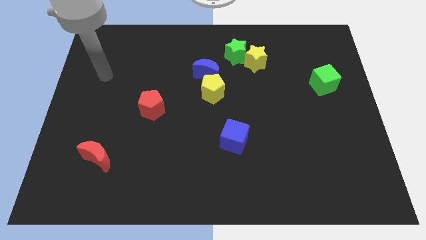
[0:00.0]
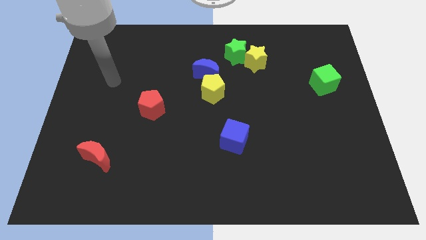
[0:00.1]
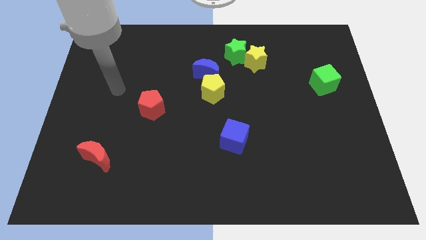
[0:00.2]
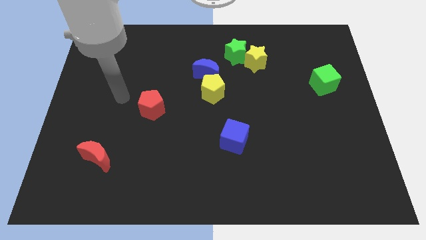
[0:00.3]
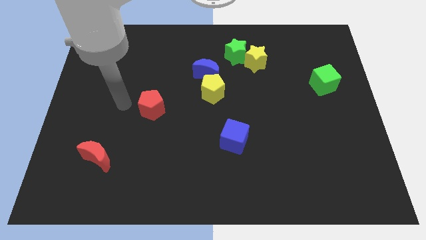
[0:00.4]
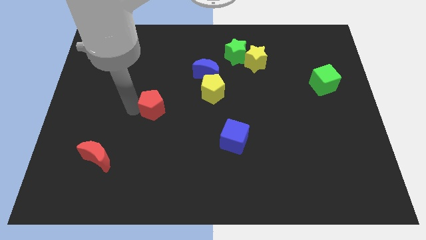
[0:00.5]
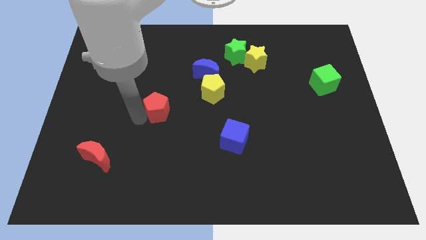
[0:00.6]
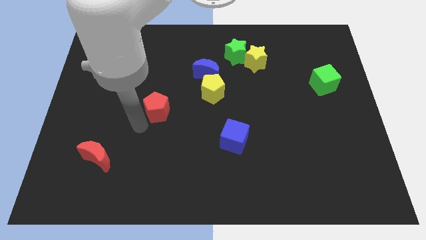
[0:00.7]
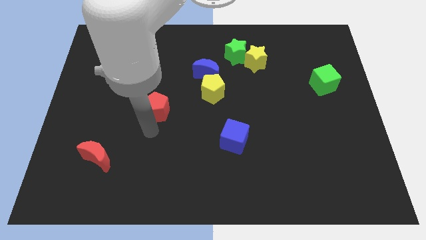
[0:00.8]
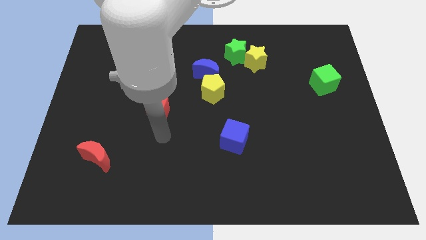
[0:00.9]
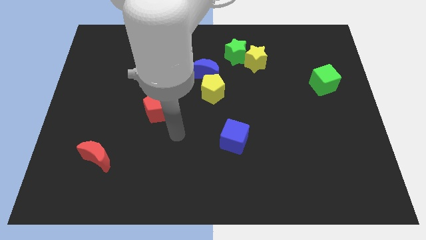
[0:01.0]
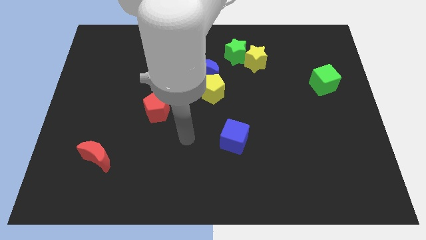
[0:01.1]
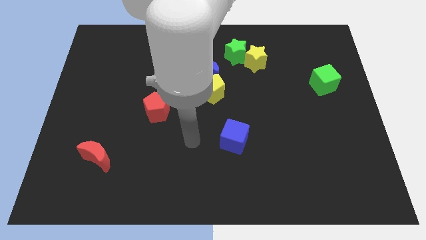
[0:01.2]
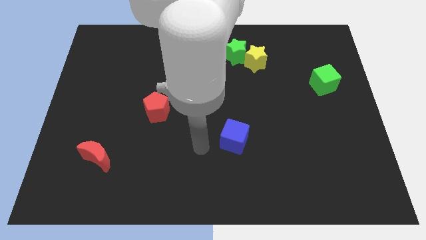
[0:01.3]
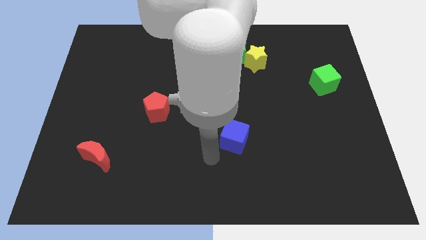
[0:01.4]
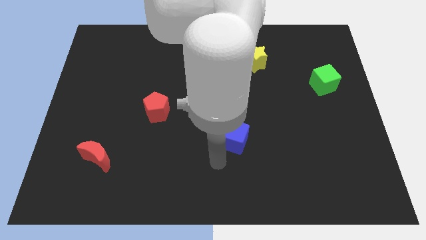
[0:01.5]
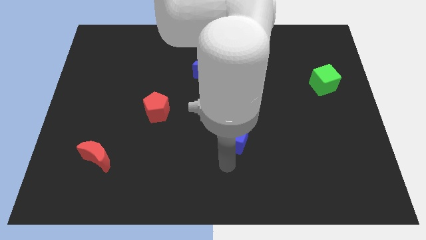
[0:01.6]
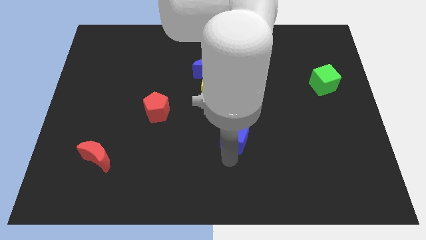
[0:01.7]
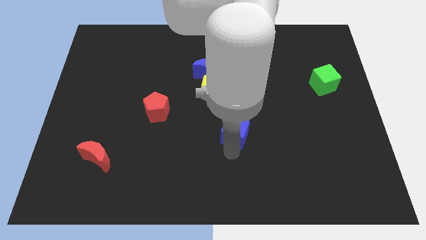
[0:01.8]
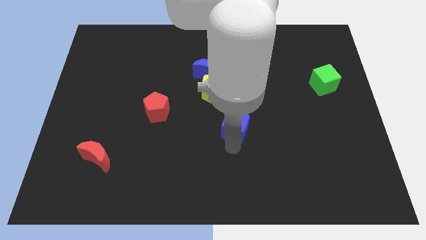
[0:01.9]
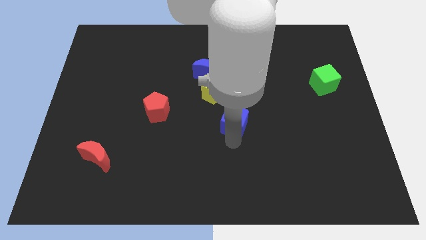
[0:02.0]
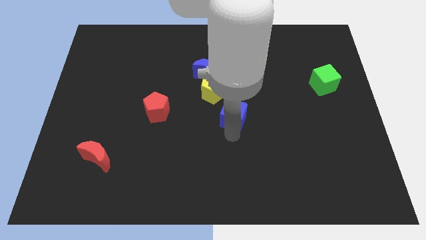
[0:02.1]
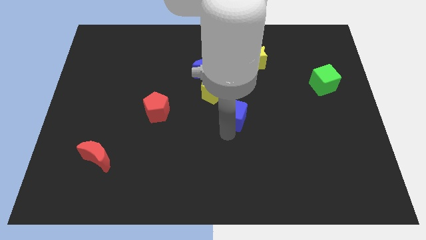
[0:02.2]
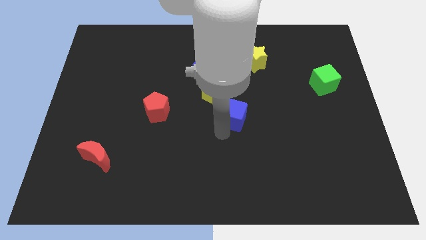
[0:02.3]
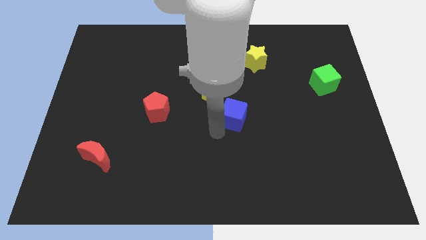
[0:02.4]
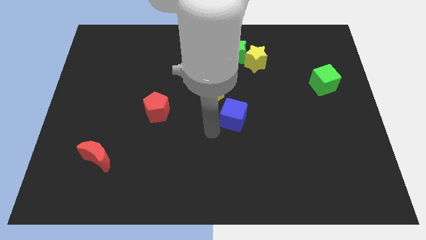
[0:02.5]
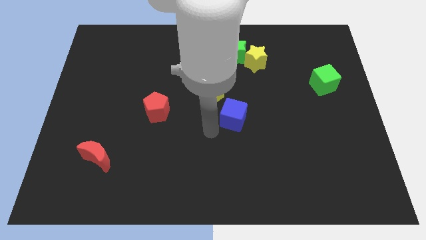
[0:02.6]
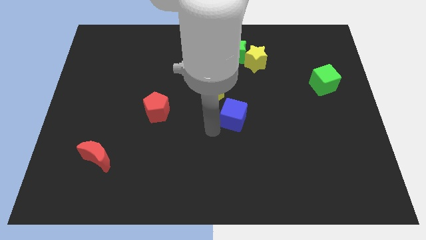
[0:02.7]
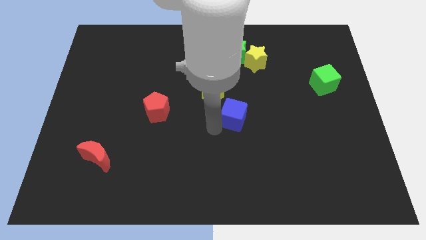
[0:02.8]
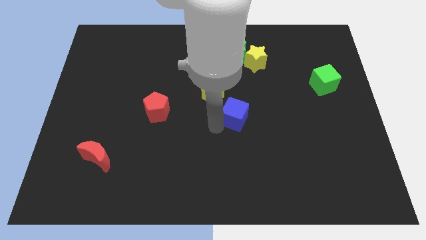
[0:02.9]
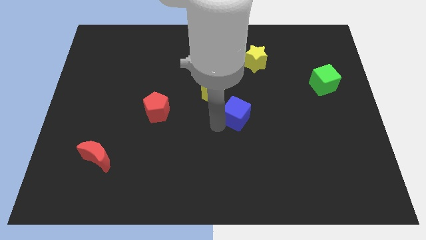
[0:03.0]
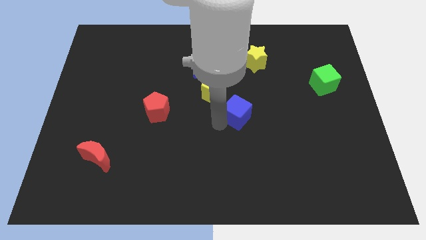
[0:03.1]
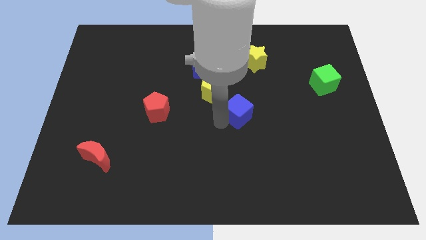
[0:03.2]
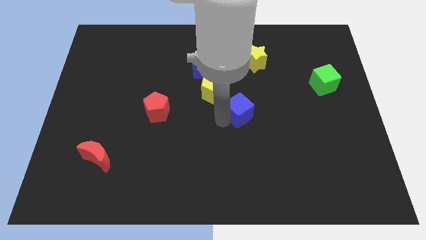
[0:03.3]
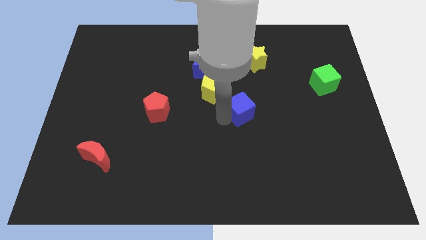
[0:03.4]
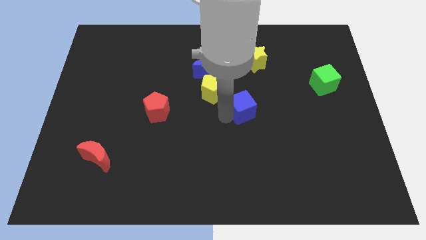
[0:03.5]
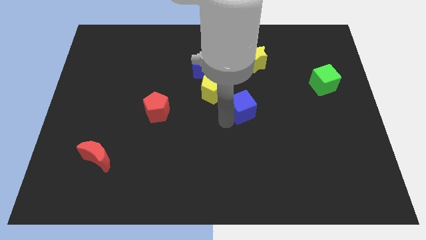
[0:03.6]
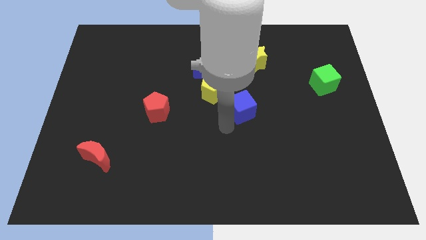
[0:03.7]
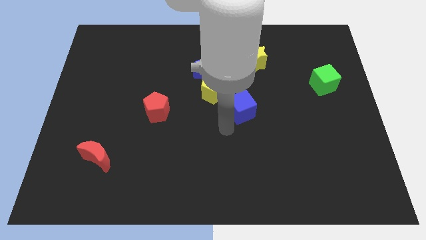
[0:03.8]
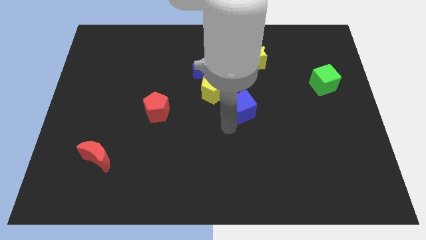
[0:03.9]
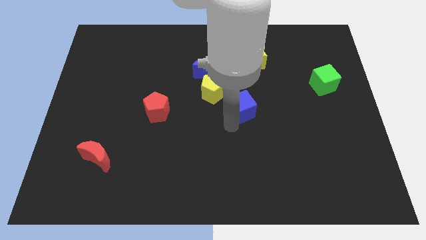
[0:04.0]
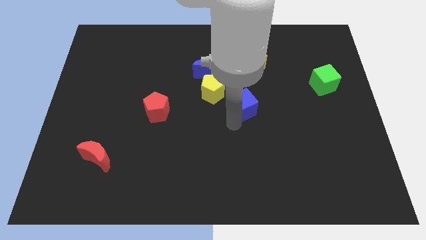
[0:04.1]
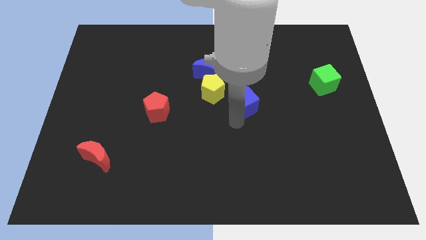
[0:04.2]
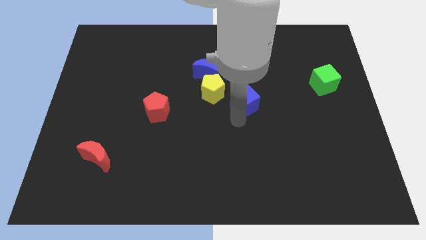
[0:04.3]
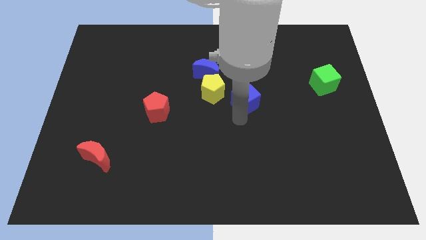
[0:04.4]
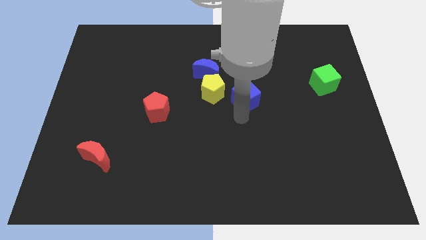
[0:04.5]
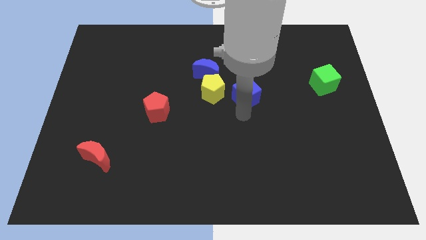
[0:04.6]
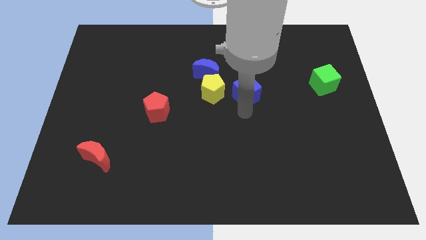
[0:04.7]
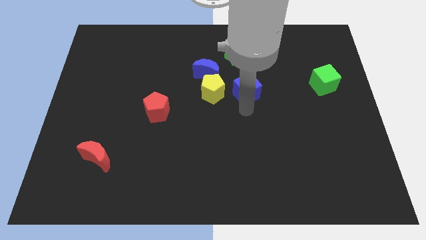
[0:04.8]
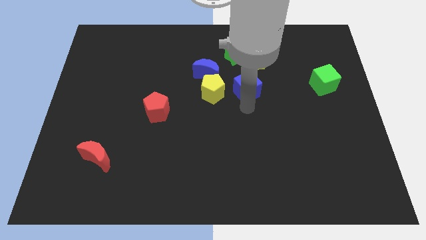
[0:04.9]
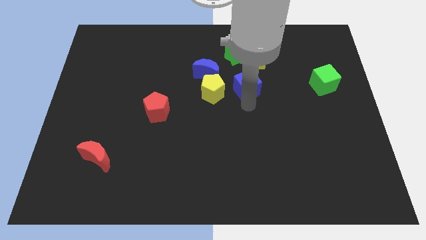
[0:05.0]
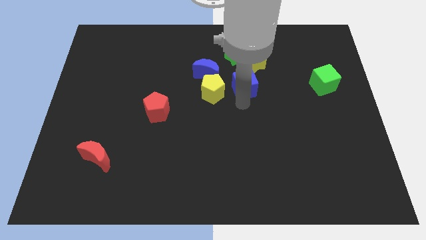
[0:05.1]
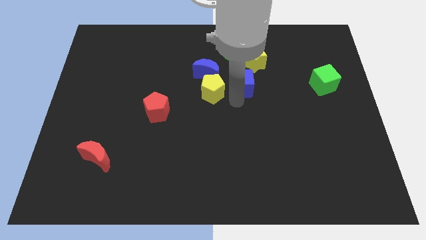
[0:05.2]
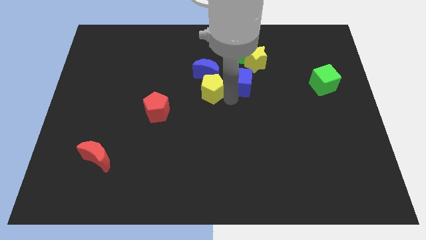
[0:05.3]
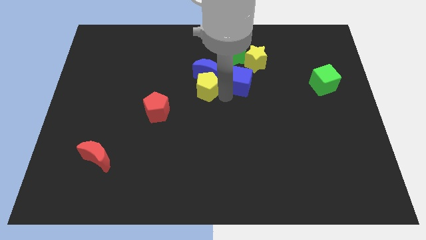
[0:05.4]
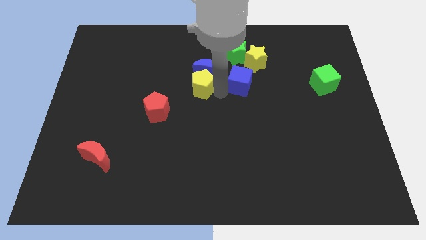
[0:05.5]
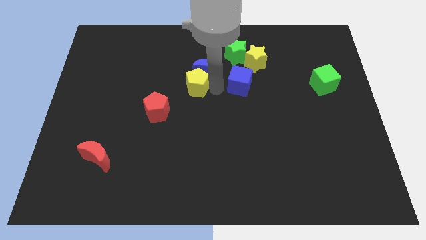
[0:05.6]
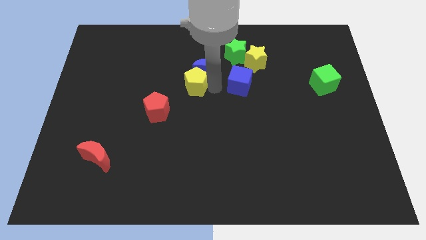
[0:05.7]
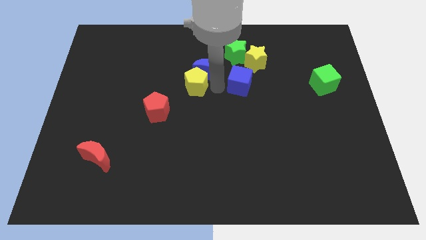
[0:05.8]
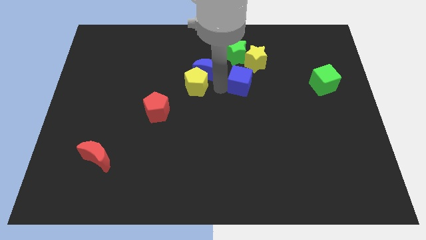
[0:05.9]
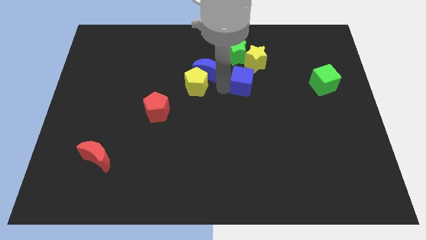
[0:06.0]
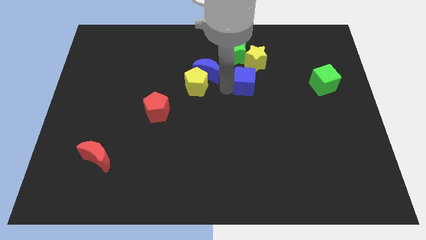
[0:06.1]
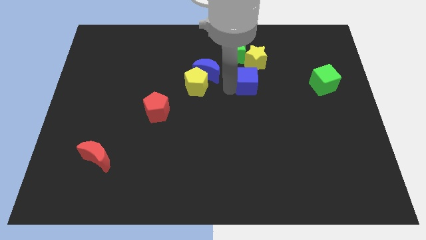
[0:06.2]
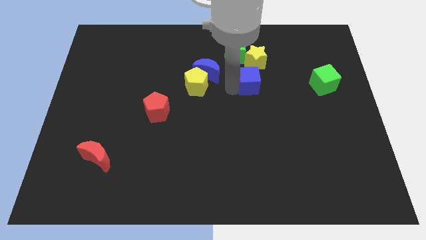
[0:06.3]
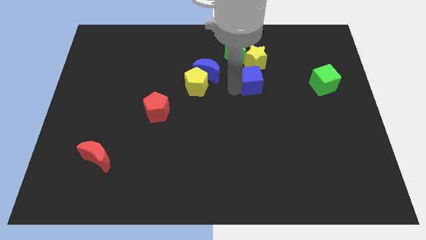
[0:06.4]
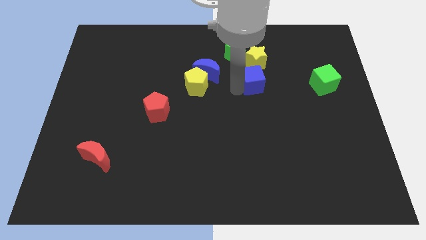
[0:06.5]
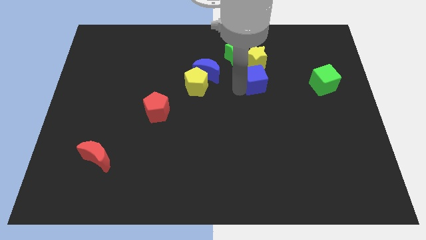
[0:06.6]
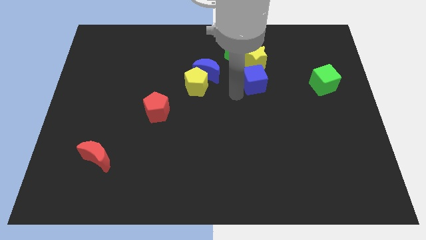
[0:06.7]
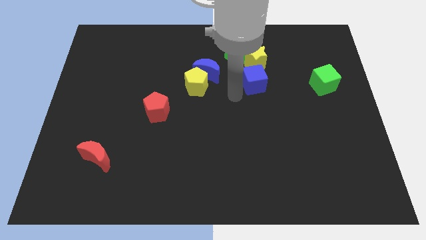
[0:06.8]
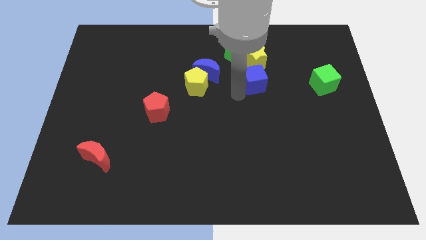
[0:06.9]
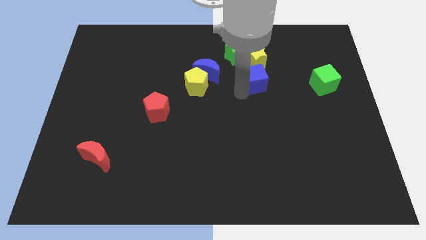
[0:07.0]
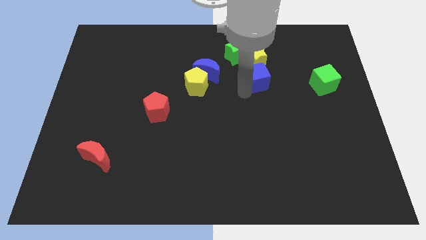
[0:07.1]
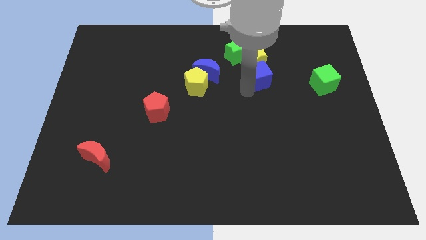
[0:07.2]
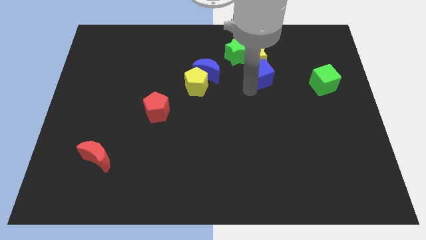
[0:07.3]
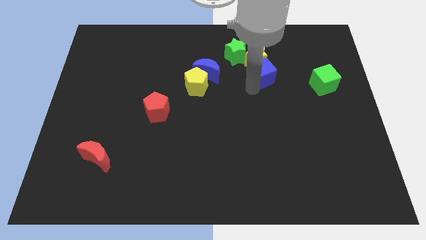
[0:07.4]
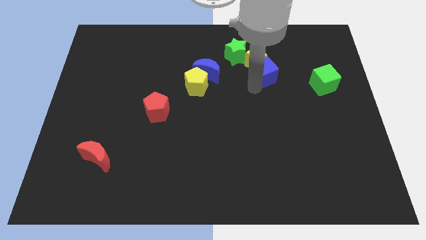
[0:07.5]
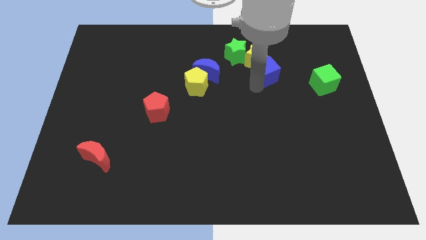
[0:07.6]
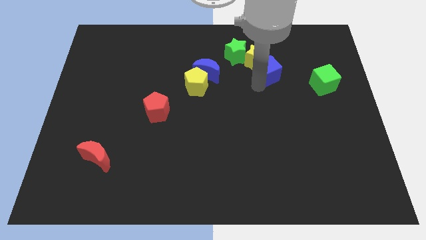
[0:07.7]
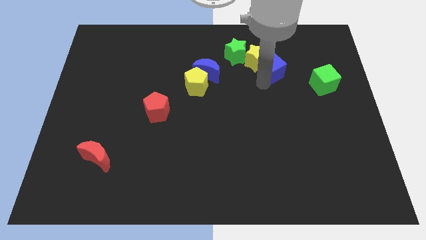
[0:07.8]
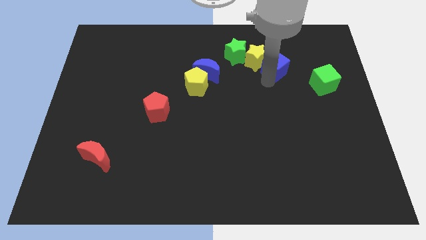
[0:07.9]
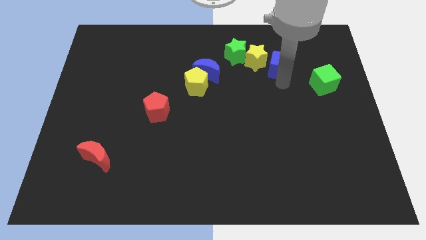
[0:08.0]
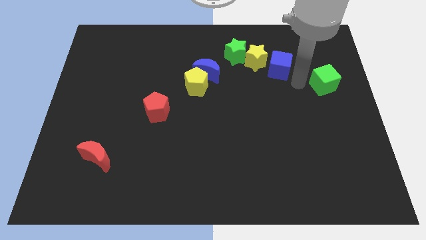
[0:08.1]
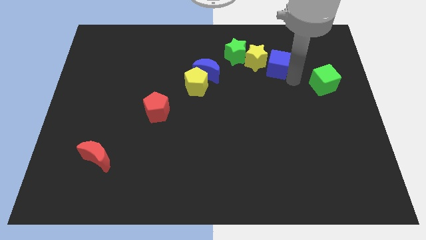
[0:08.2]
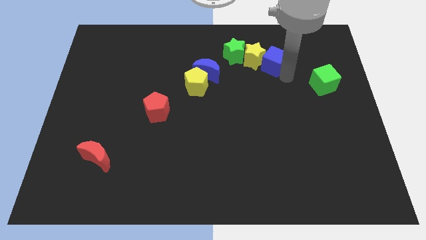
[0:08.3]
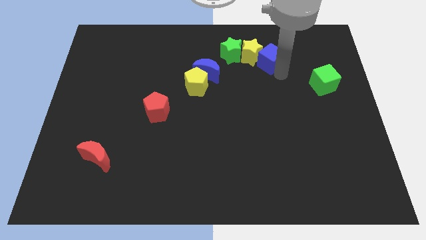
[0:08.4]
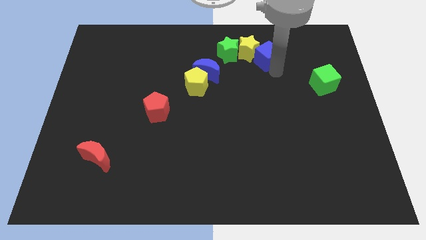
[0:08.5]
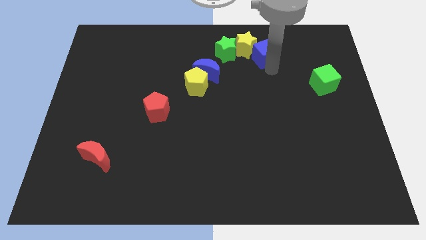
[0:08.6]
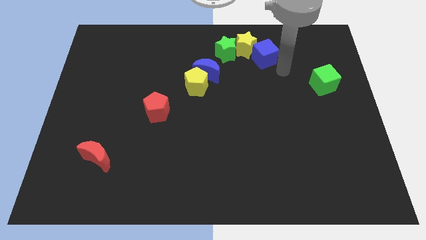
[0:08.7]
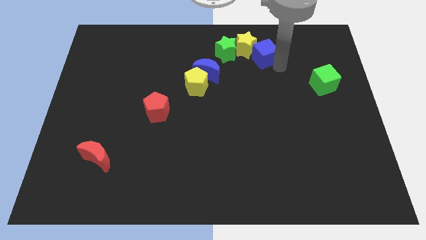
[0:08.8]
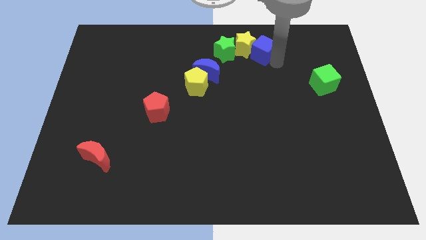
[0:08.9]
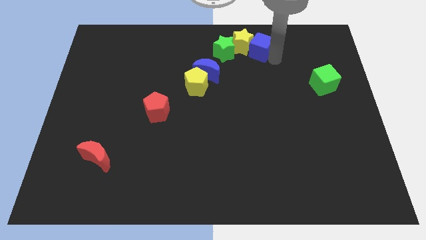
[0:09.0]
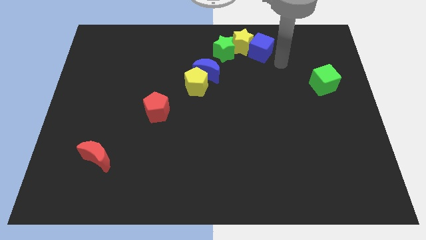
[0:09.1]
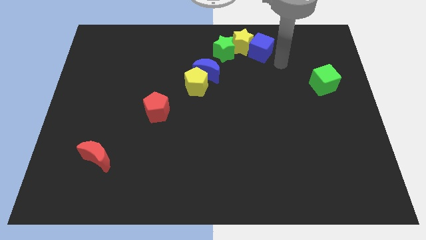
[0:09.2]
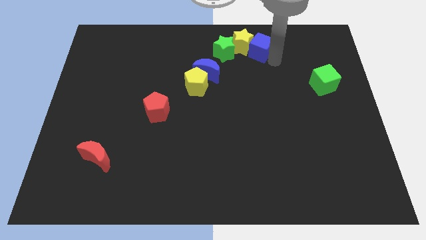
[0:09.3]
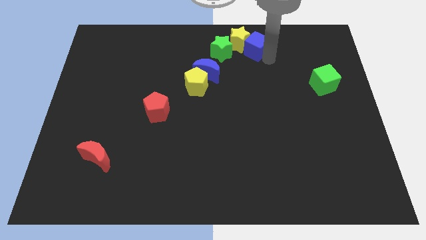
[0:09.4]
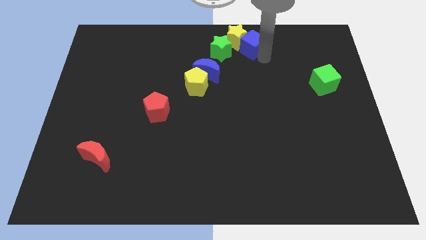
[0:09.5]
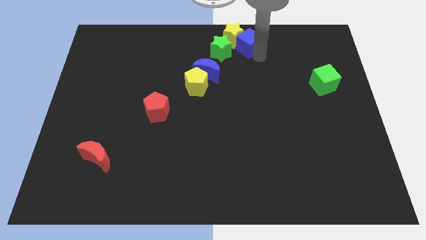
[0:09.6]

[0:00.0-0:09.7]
push the blue cube to the top
